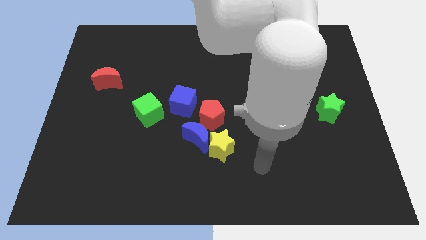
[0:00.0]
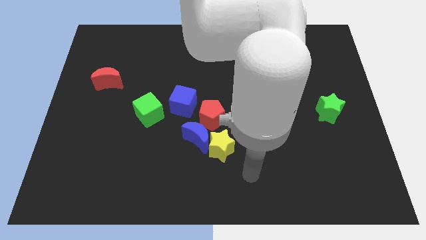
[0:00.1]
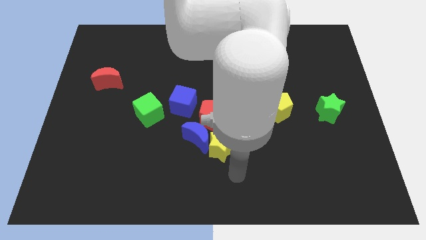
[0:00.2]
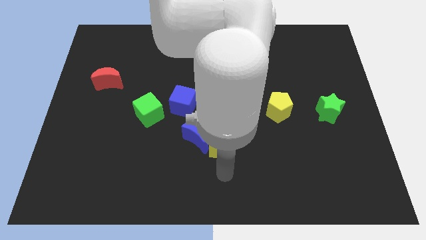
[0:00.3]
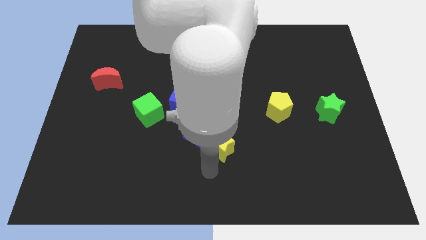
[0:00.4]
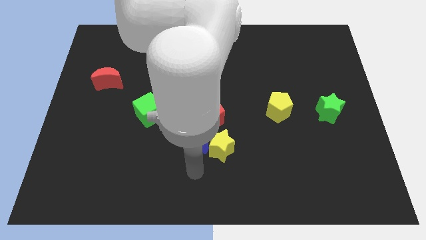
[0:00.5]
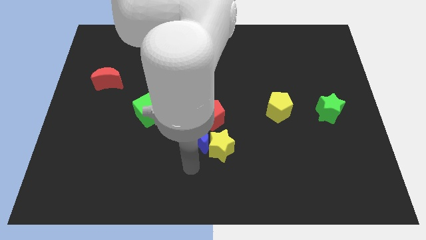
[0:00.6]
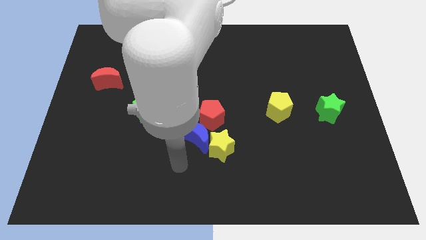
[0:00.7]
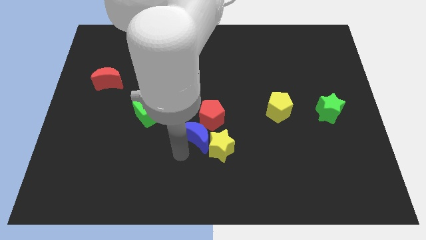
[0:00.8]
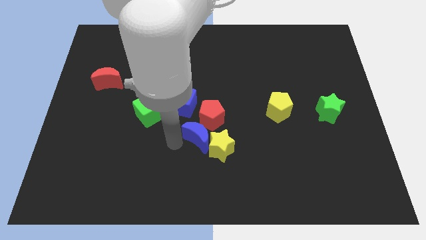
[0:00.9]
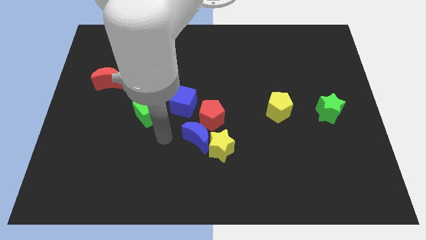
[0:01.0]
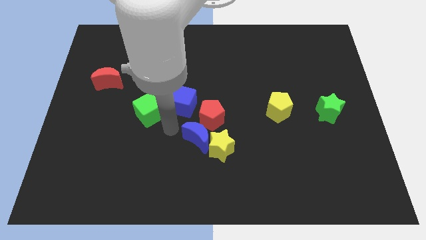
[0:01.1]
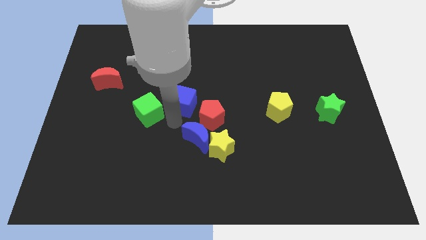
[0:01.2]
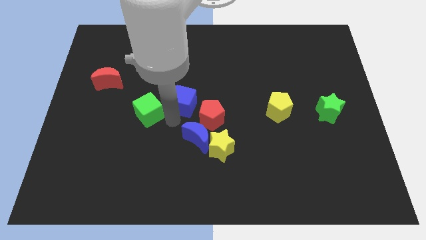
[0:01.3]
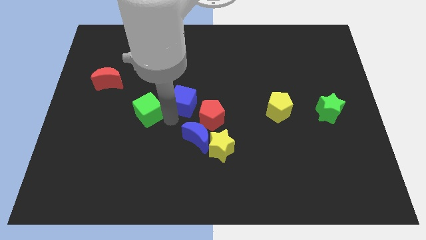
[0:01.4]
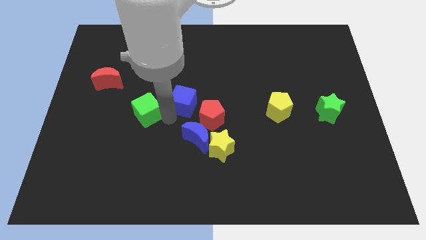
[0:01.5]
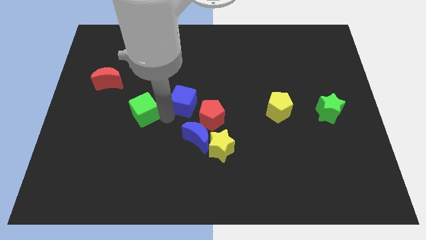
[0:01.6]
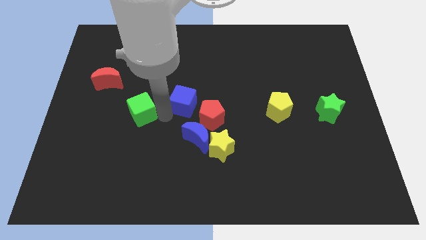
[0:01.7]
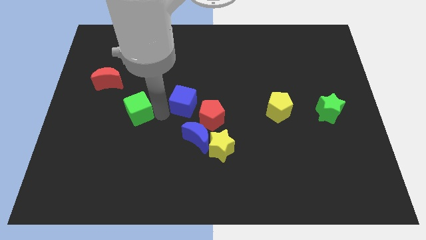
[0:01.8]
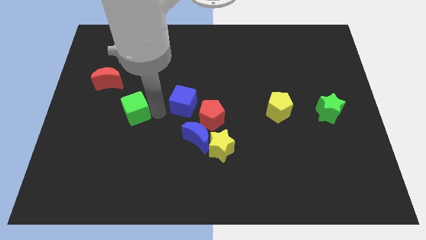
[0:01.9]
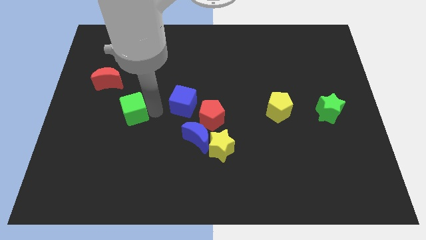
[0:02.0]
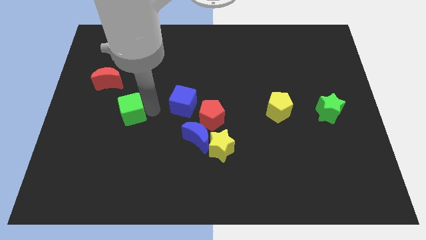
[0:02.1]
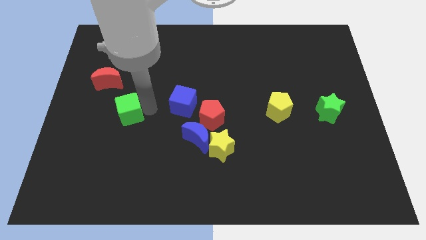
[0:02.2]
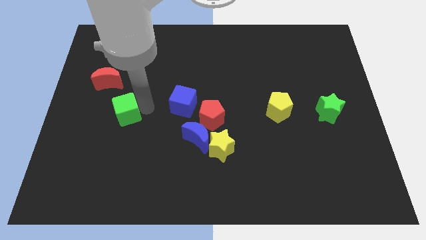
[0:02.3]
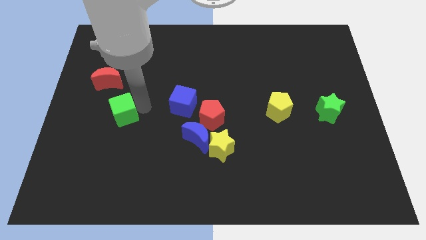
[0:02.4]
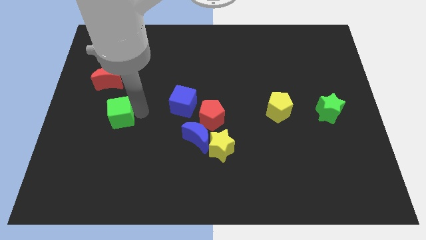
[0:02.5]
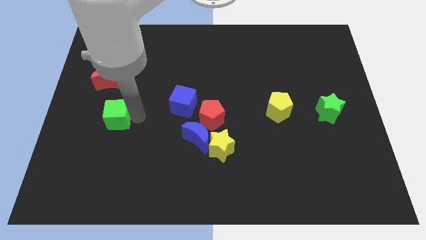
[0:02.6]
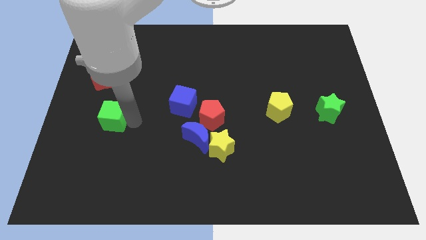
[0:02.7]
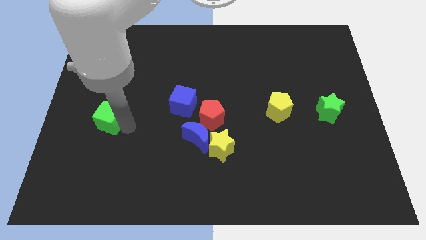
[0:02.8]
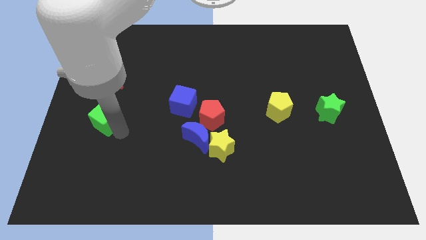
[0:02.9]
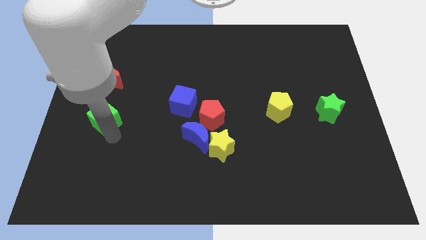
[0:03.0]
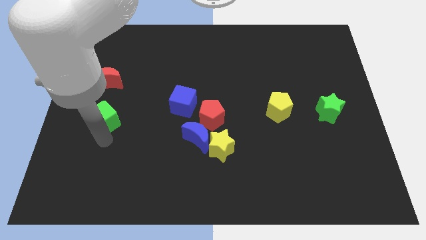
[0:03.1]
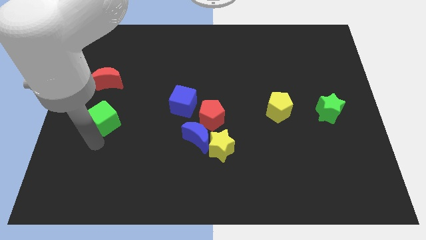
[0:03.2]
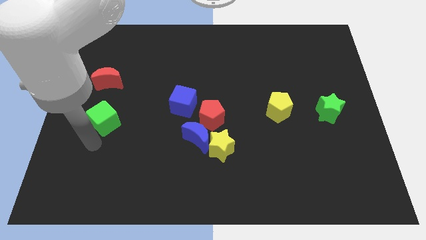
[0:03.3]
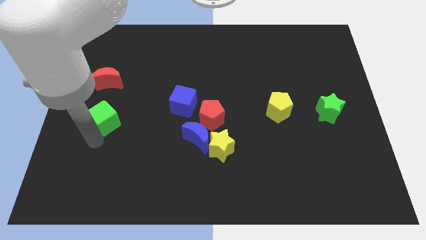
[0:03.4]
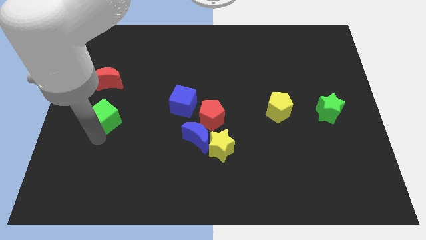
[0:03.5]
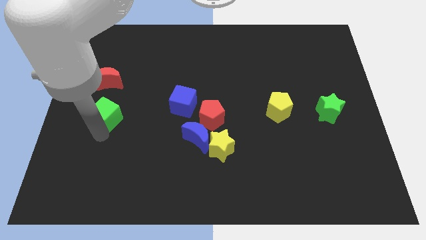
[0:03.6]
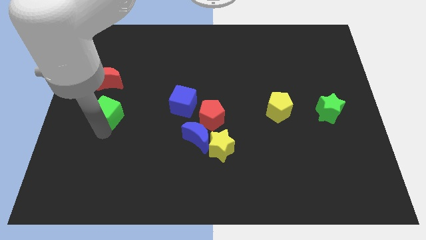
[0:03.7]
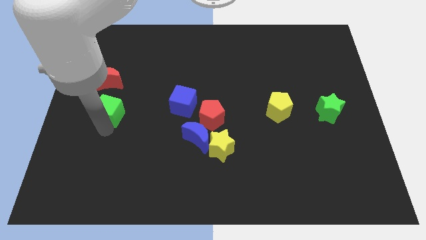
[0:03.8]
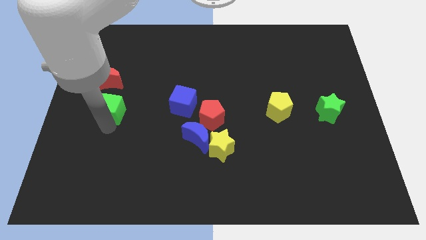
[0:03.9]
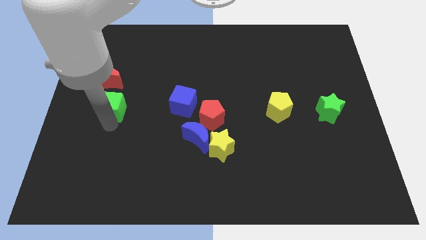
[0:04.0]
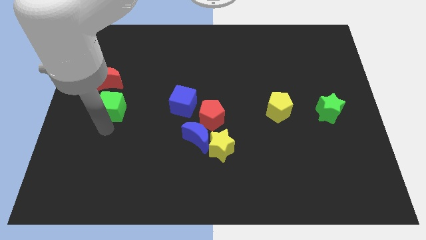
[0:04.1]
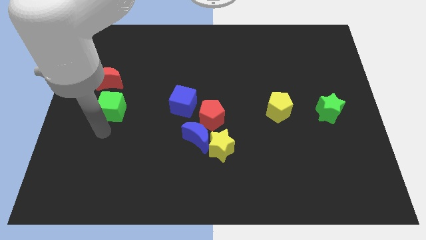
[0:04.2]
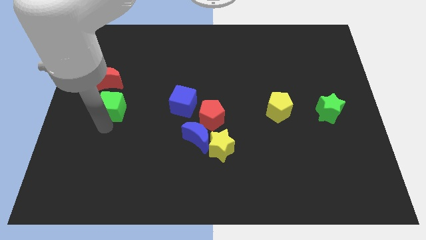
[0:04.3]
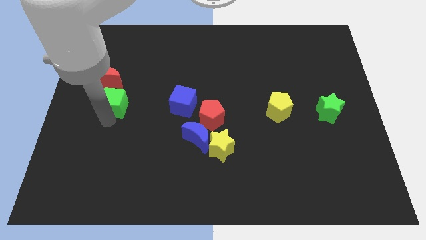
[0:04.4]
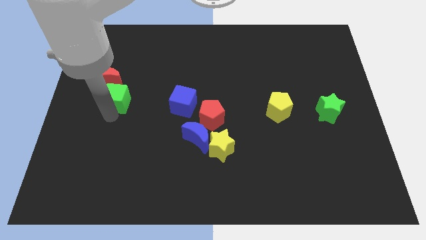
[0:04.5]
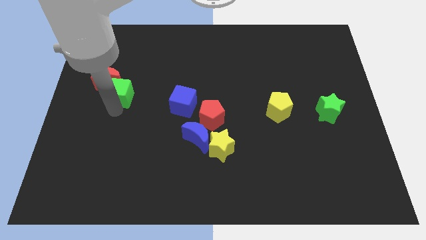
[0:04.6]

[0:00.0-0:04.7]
slide the green cube next to the red moon

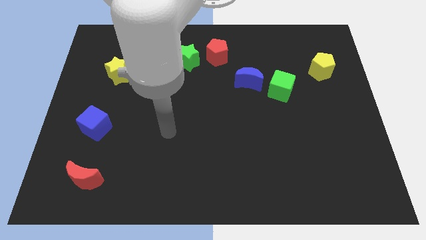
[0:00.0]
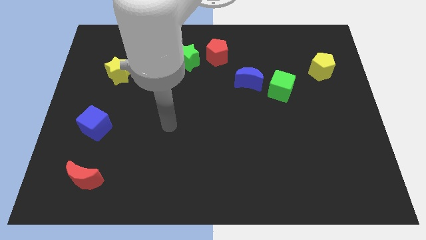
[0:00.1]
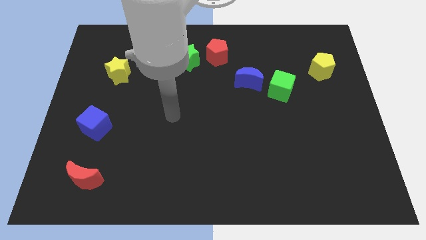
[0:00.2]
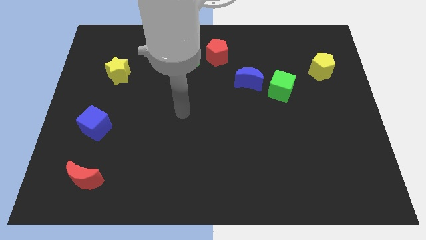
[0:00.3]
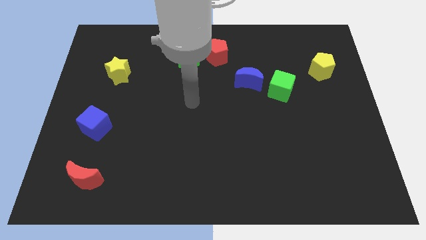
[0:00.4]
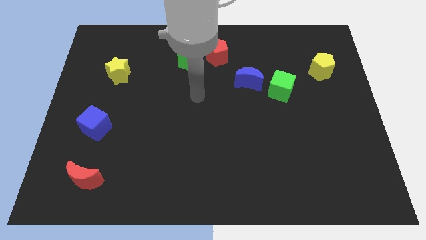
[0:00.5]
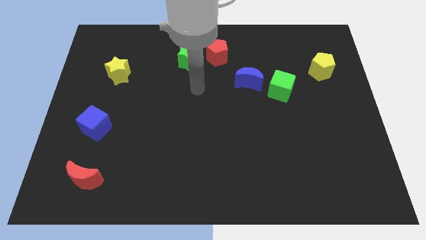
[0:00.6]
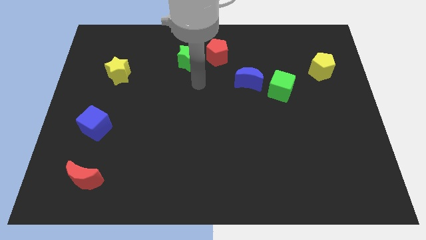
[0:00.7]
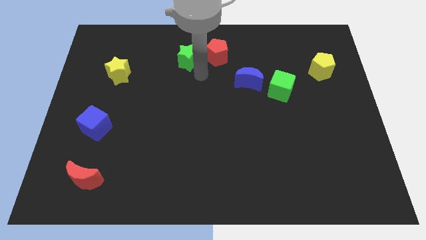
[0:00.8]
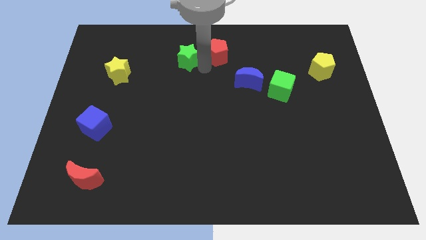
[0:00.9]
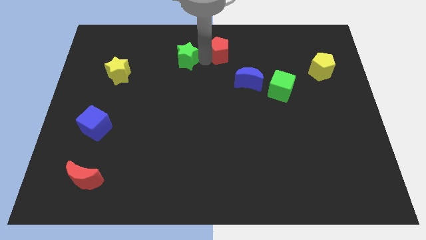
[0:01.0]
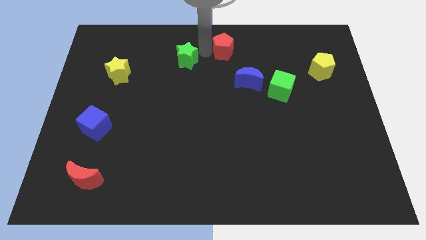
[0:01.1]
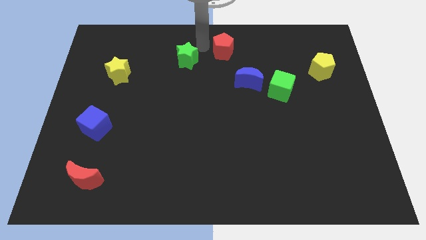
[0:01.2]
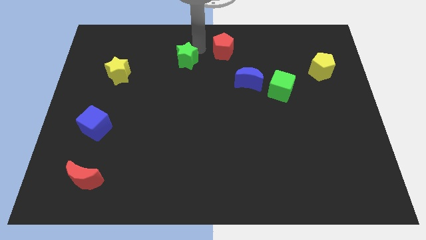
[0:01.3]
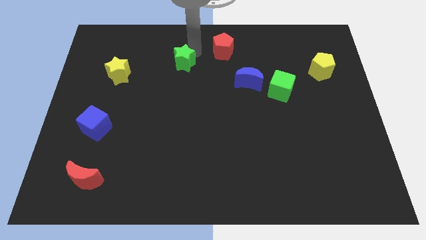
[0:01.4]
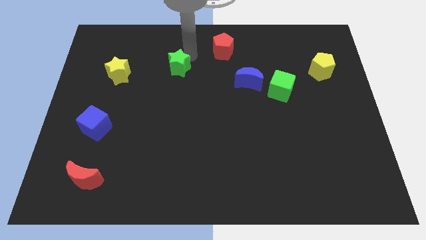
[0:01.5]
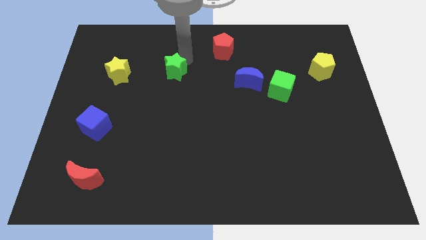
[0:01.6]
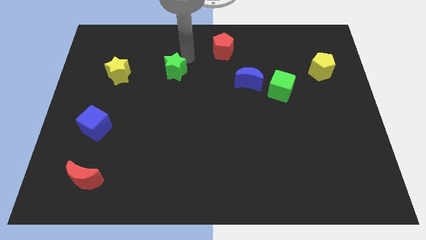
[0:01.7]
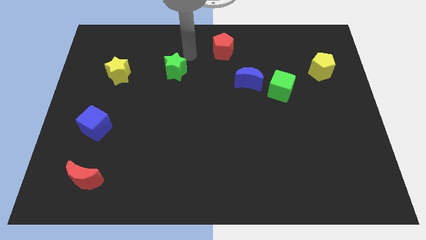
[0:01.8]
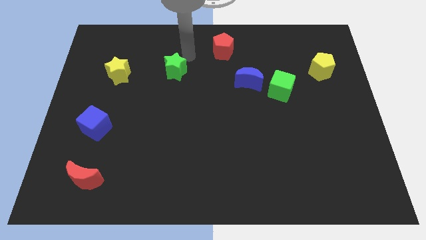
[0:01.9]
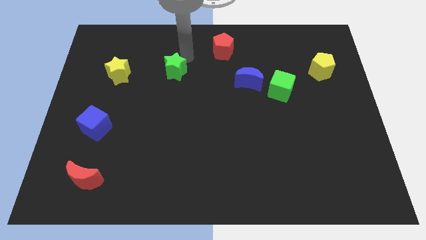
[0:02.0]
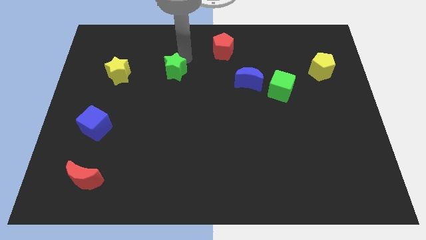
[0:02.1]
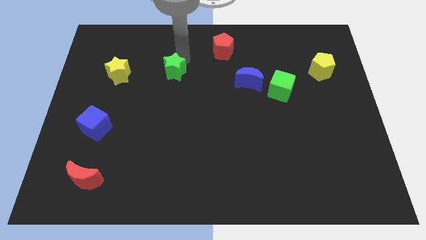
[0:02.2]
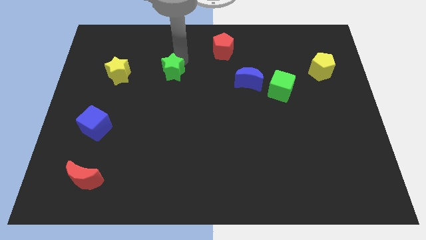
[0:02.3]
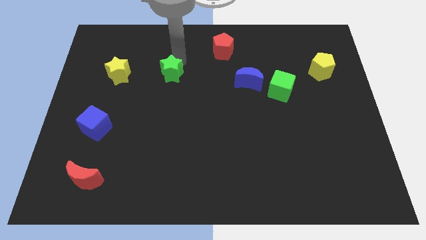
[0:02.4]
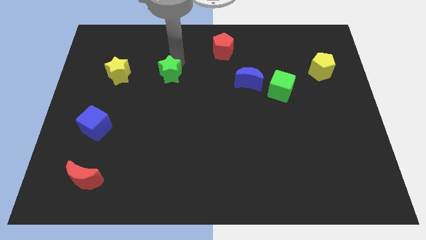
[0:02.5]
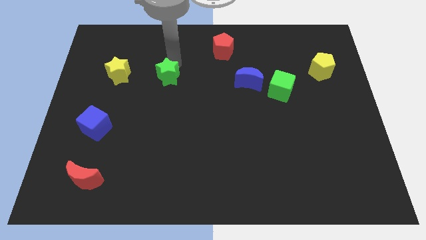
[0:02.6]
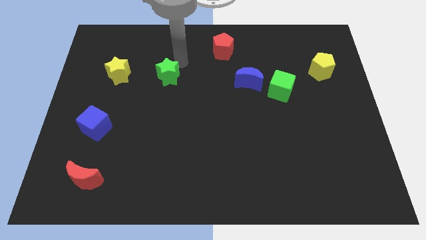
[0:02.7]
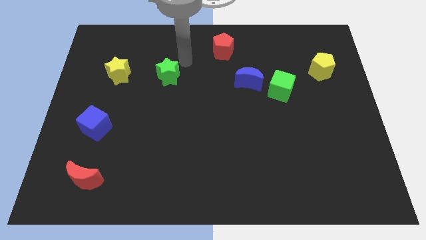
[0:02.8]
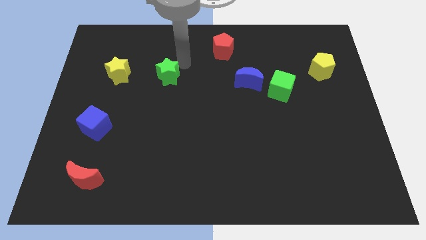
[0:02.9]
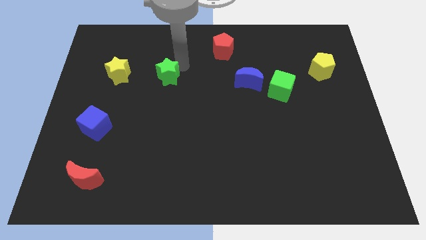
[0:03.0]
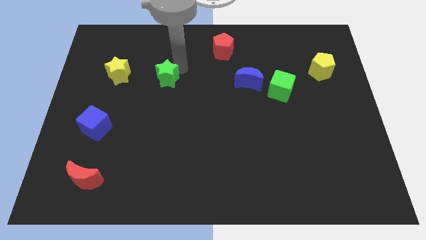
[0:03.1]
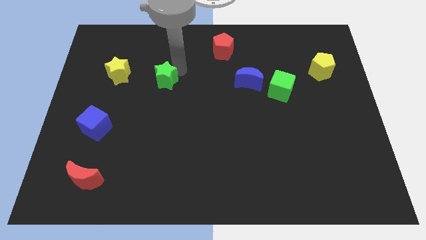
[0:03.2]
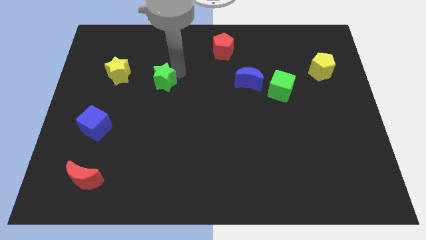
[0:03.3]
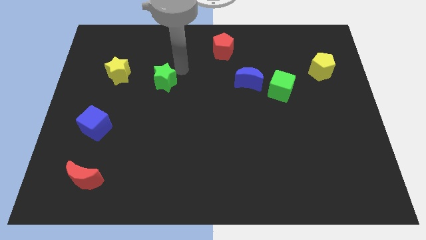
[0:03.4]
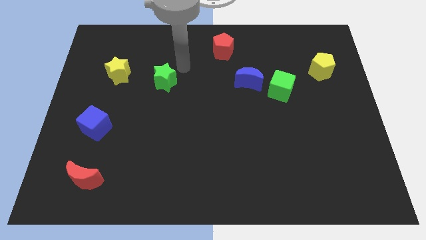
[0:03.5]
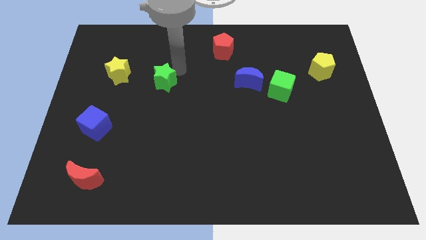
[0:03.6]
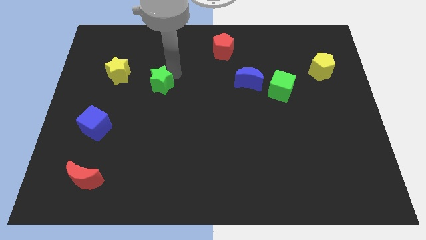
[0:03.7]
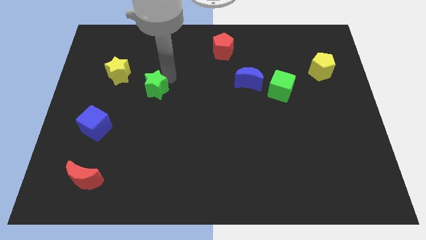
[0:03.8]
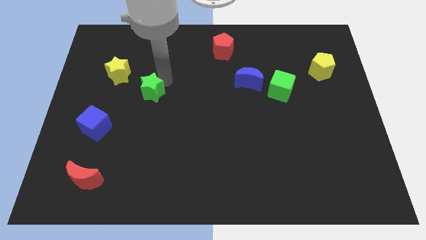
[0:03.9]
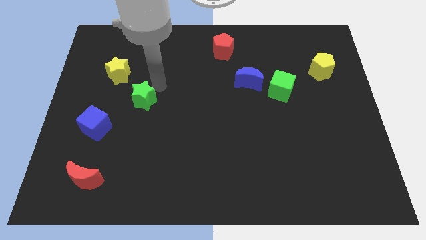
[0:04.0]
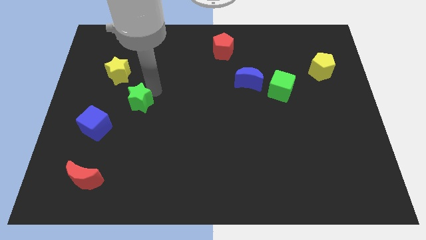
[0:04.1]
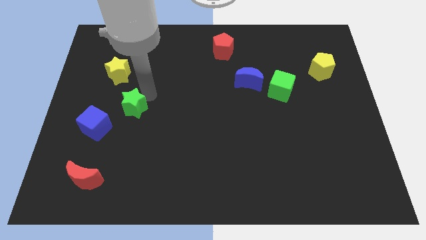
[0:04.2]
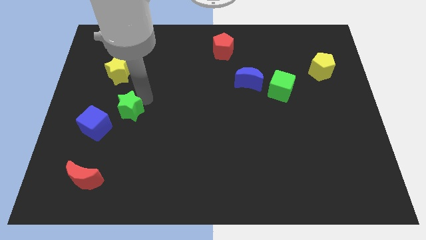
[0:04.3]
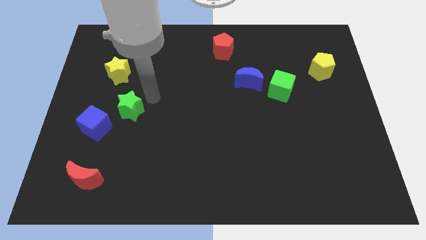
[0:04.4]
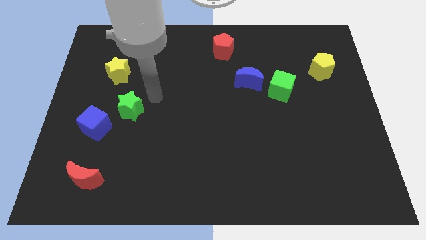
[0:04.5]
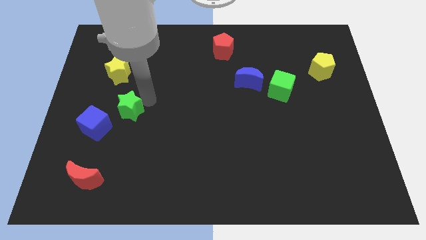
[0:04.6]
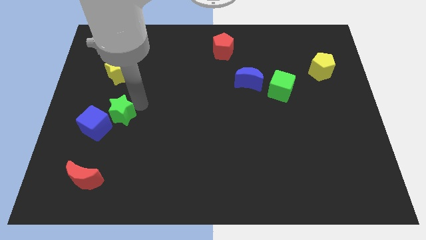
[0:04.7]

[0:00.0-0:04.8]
move the green star close to the blue cube
